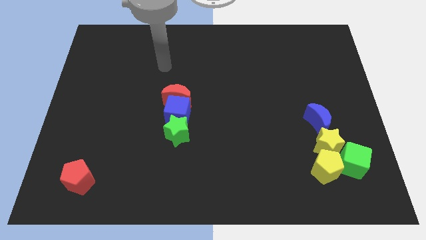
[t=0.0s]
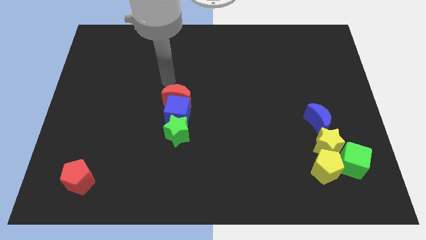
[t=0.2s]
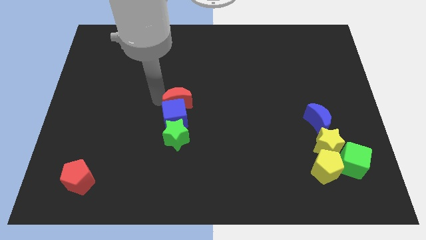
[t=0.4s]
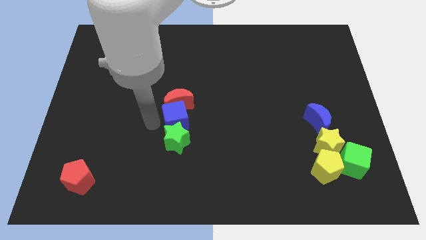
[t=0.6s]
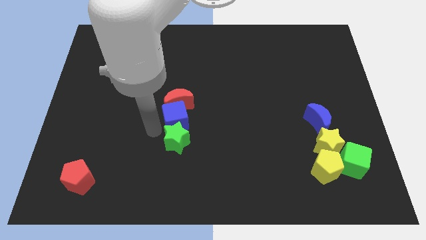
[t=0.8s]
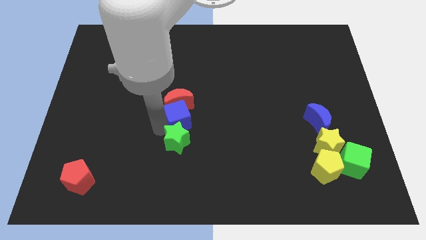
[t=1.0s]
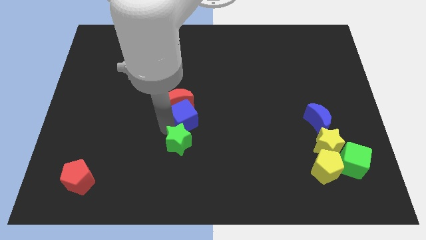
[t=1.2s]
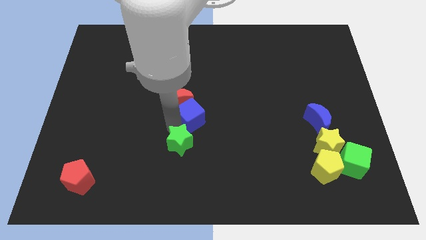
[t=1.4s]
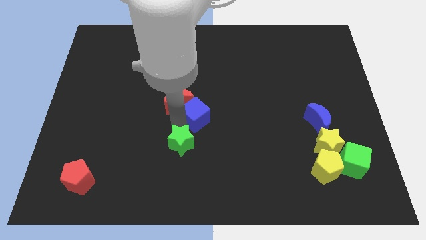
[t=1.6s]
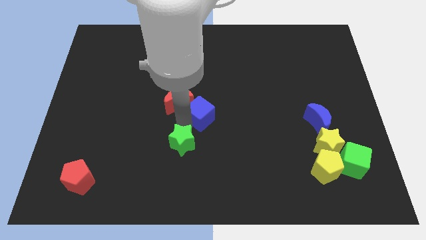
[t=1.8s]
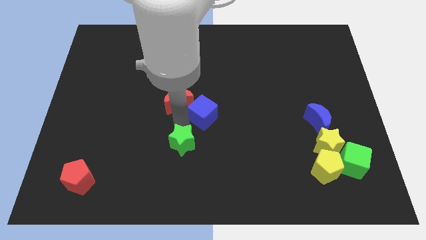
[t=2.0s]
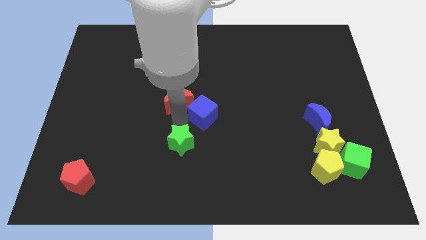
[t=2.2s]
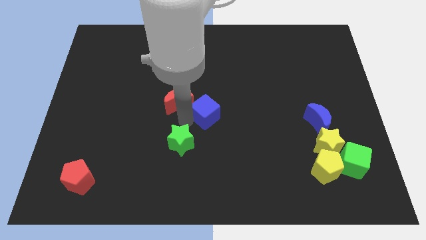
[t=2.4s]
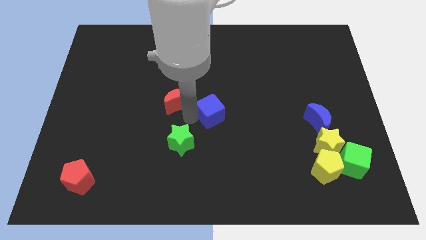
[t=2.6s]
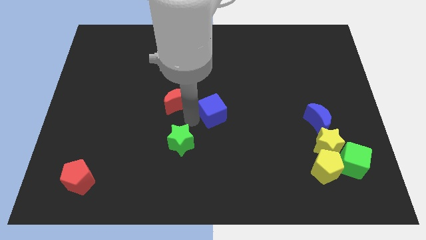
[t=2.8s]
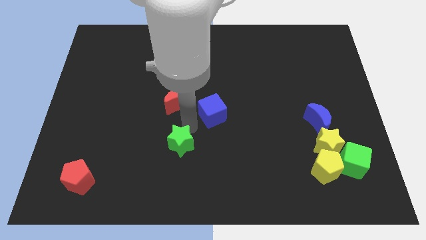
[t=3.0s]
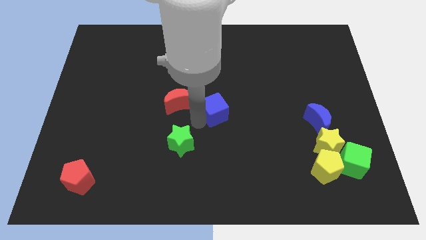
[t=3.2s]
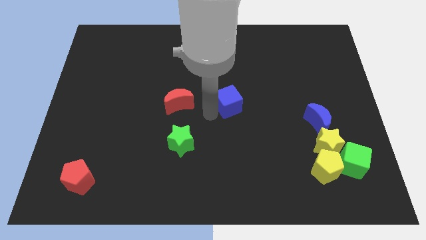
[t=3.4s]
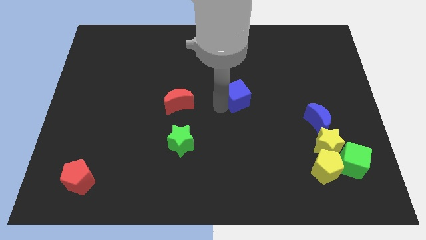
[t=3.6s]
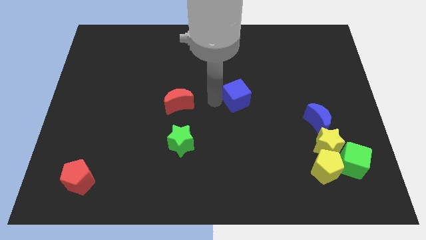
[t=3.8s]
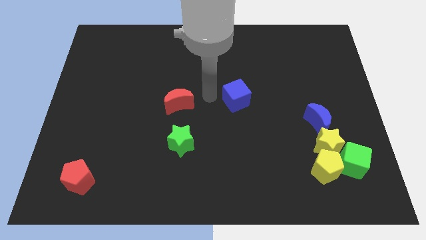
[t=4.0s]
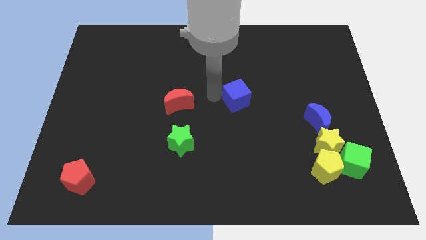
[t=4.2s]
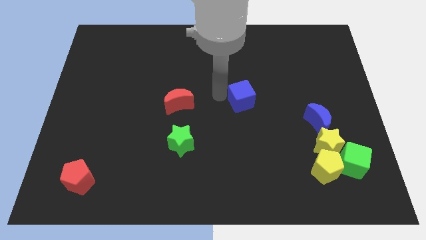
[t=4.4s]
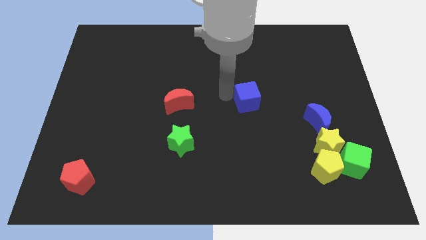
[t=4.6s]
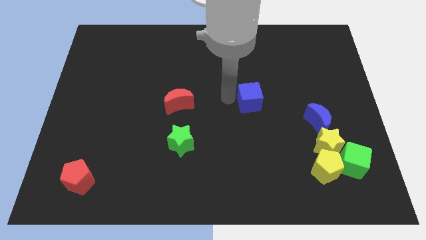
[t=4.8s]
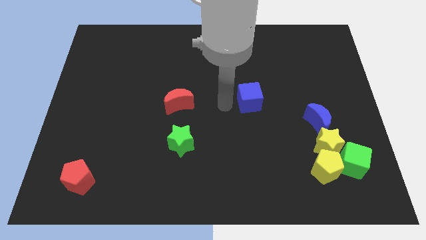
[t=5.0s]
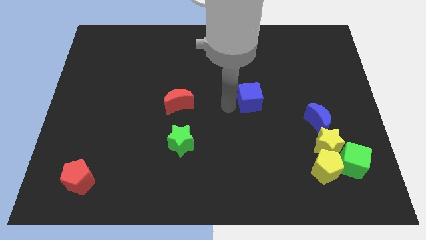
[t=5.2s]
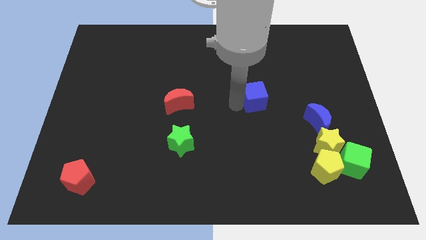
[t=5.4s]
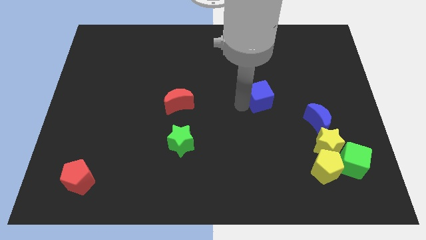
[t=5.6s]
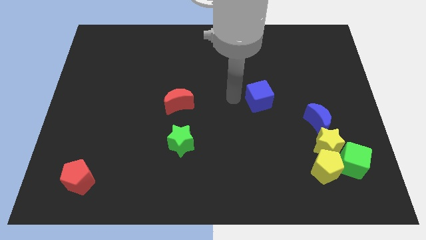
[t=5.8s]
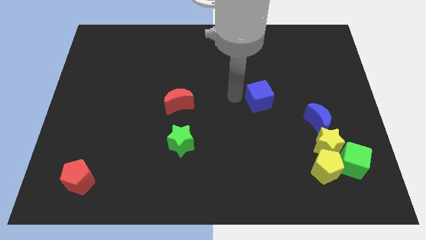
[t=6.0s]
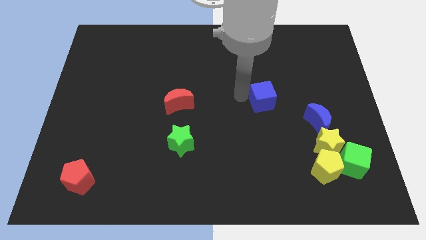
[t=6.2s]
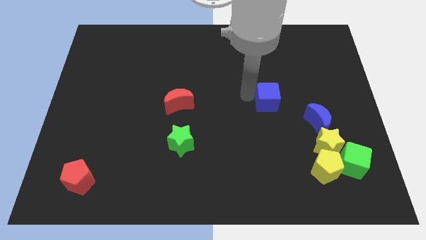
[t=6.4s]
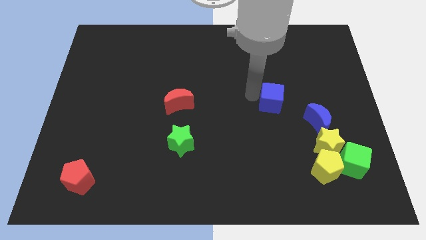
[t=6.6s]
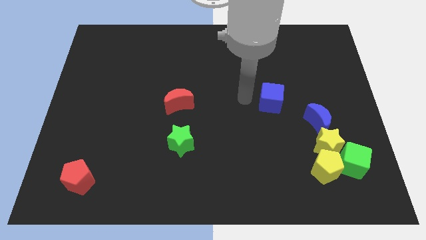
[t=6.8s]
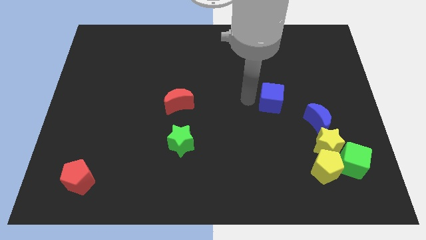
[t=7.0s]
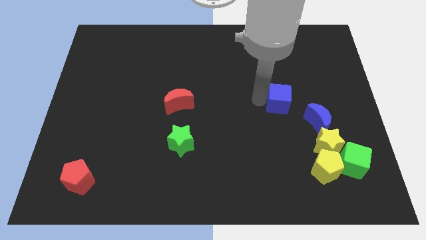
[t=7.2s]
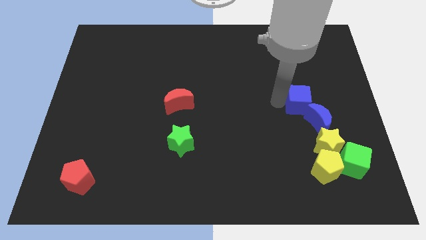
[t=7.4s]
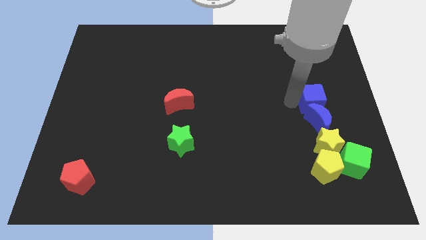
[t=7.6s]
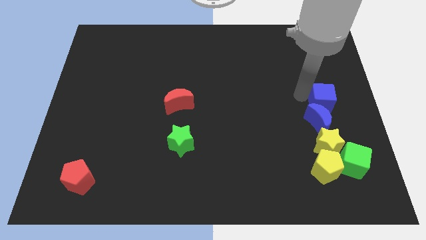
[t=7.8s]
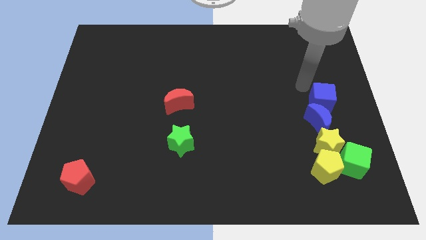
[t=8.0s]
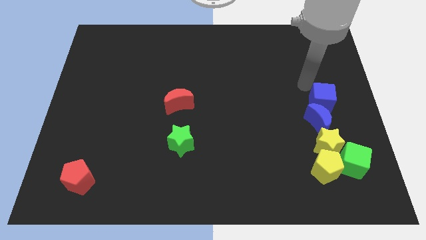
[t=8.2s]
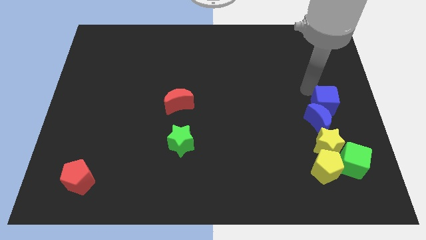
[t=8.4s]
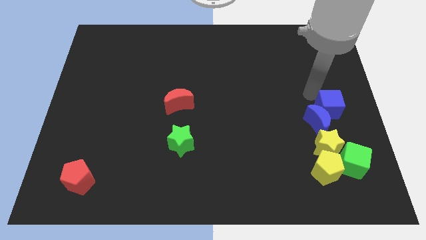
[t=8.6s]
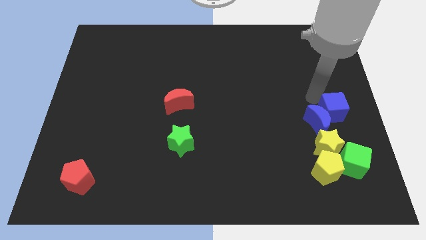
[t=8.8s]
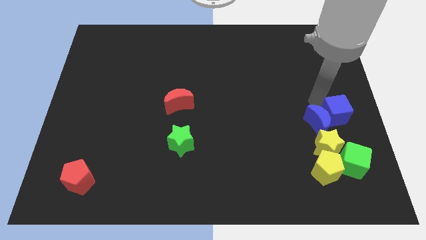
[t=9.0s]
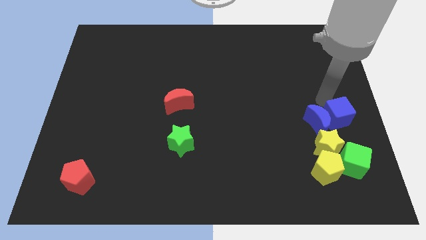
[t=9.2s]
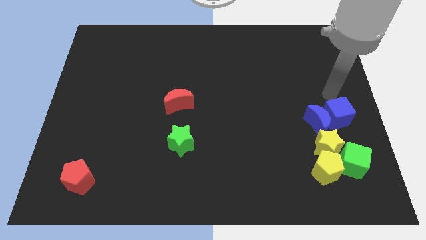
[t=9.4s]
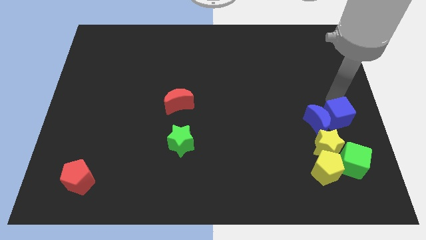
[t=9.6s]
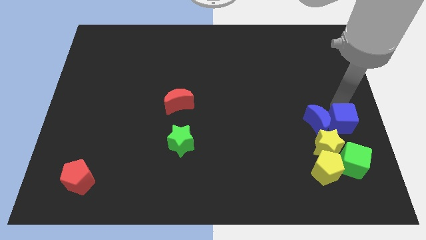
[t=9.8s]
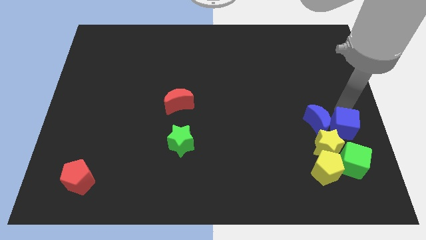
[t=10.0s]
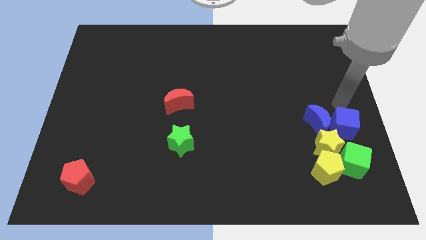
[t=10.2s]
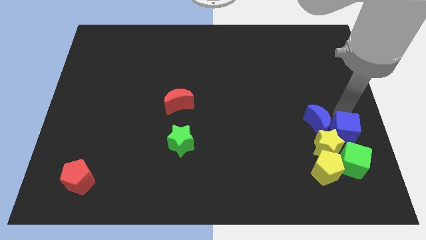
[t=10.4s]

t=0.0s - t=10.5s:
slide the blue cube diagonally up and to the right of the yellow pentagon

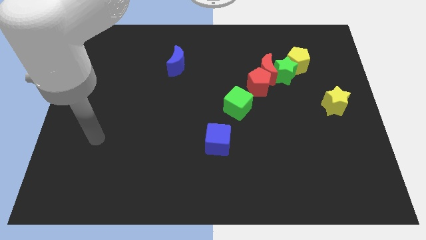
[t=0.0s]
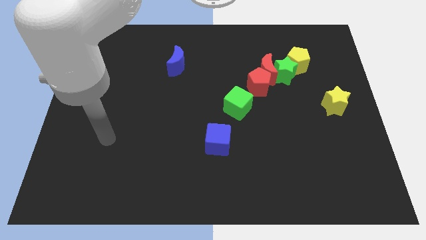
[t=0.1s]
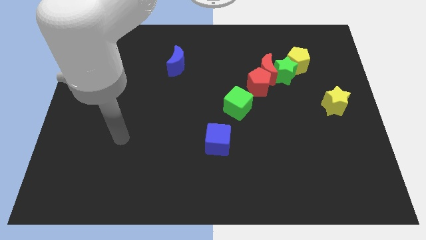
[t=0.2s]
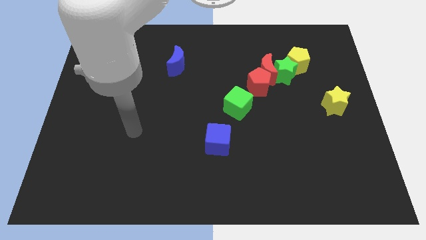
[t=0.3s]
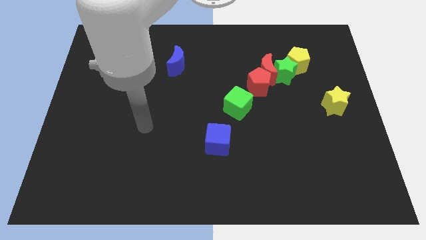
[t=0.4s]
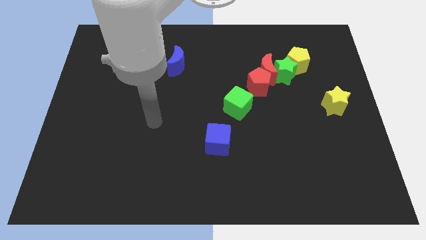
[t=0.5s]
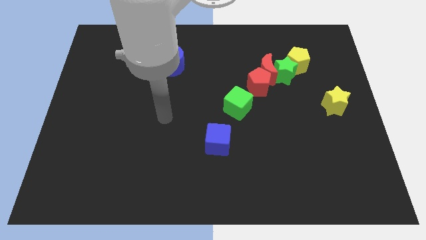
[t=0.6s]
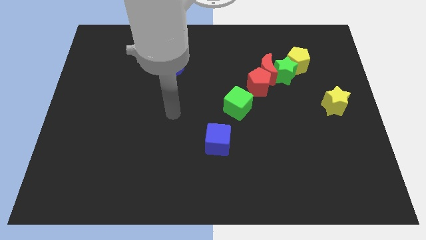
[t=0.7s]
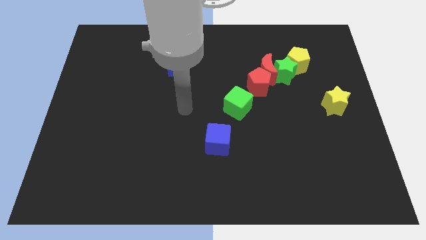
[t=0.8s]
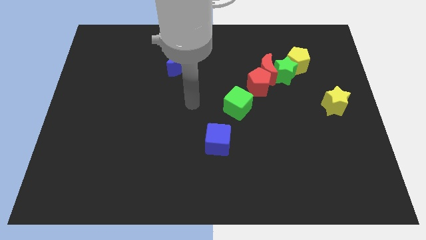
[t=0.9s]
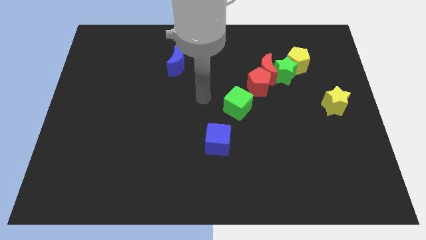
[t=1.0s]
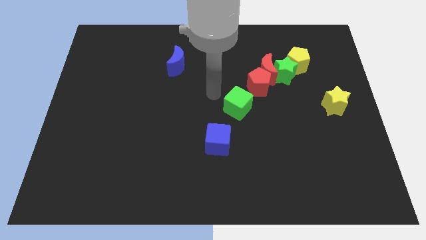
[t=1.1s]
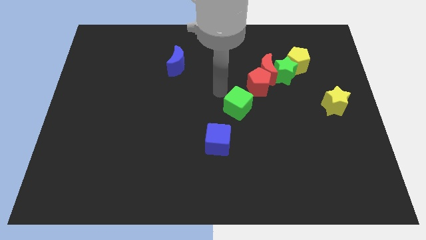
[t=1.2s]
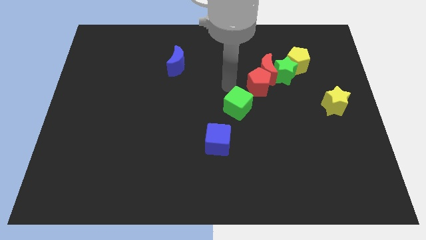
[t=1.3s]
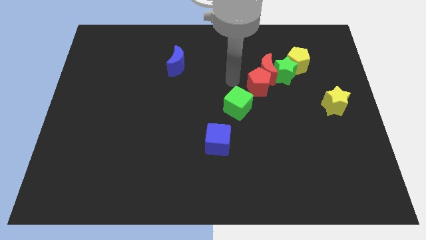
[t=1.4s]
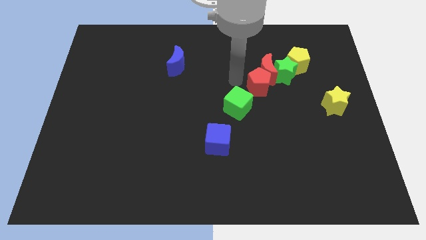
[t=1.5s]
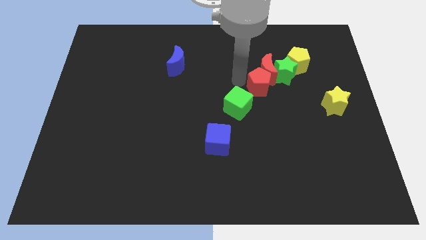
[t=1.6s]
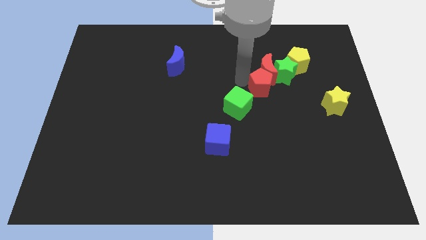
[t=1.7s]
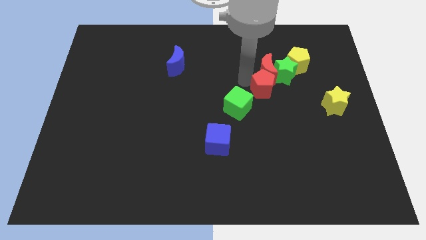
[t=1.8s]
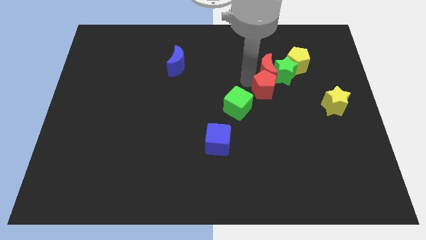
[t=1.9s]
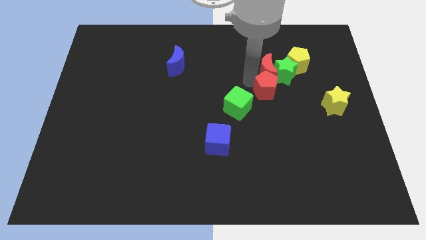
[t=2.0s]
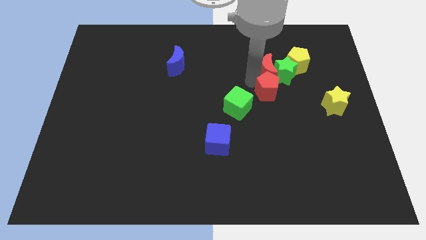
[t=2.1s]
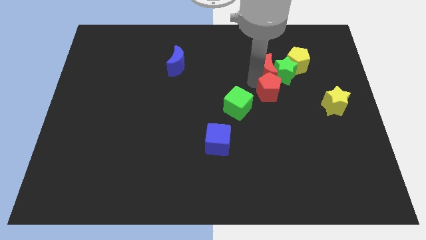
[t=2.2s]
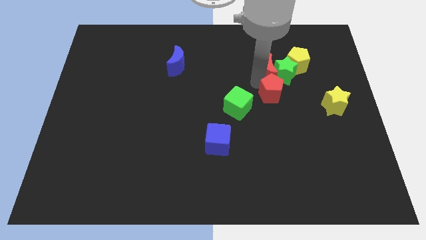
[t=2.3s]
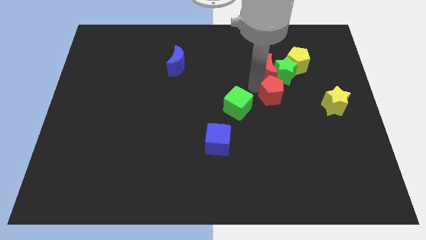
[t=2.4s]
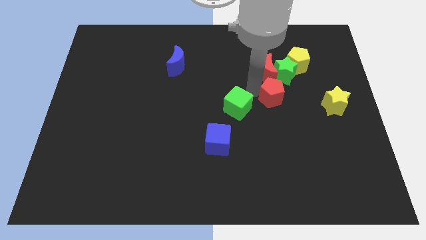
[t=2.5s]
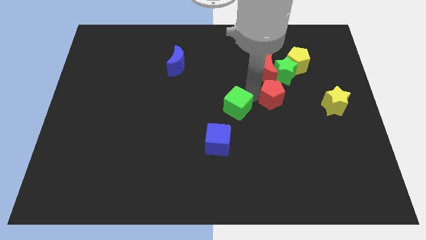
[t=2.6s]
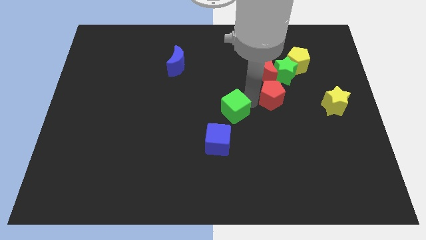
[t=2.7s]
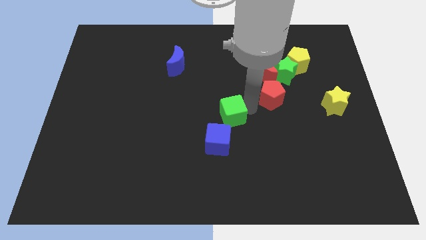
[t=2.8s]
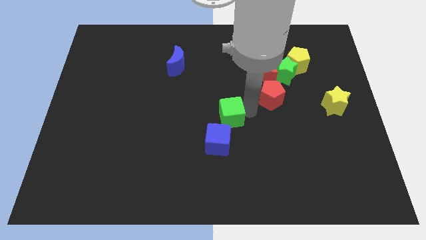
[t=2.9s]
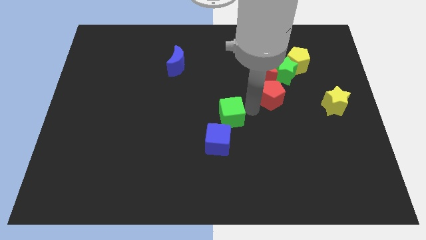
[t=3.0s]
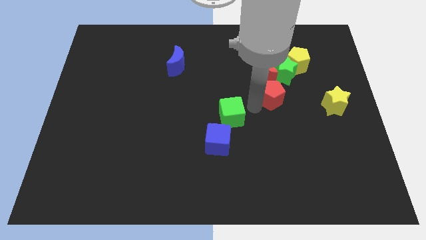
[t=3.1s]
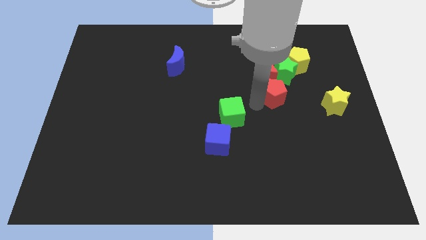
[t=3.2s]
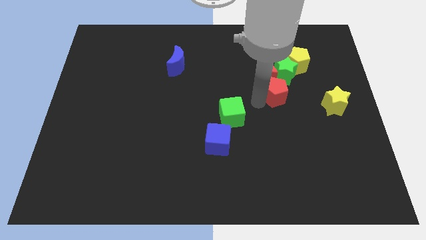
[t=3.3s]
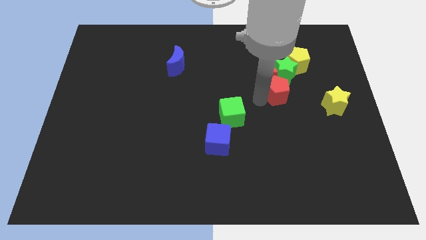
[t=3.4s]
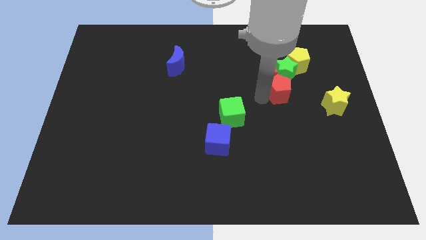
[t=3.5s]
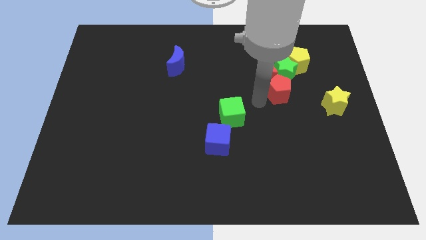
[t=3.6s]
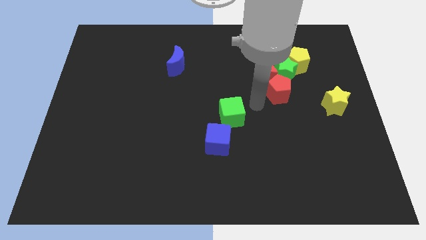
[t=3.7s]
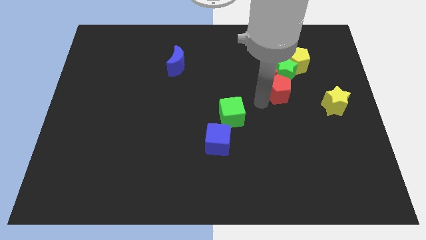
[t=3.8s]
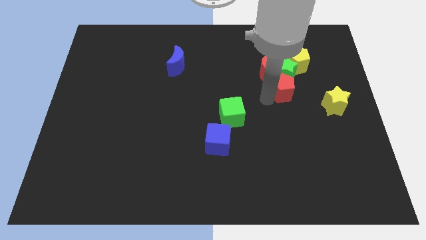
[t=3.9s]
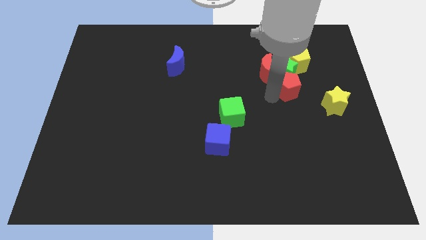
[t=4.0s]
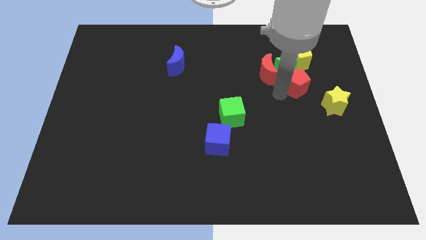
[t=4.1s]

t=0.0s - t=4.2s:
push the red pentagon right of the red moon
